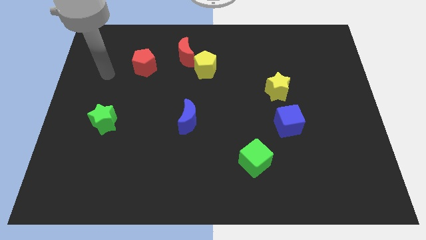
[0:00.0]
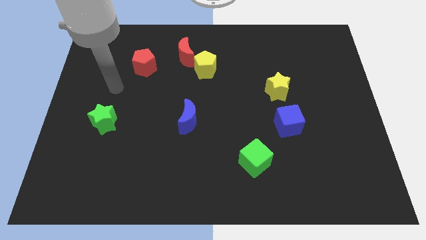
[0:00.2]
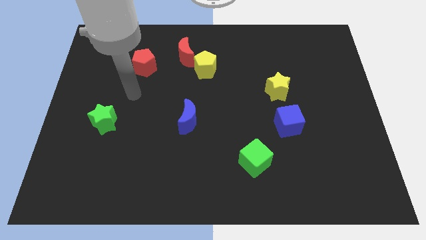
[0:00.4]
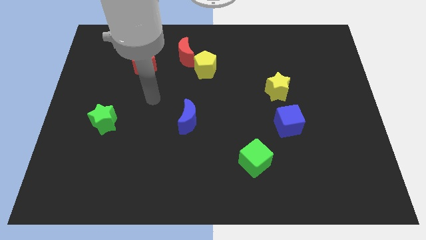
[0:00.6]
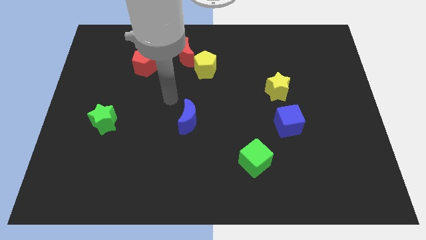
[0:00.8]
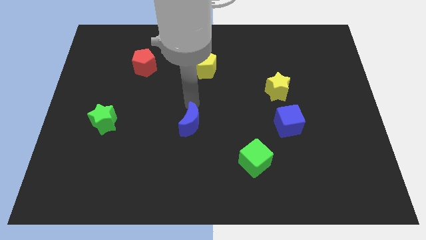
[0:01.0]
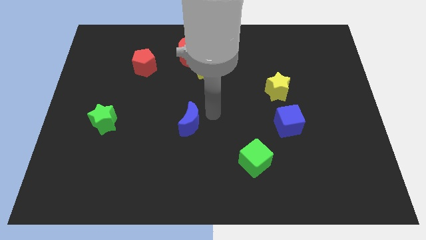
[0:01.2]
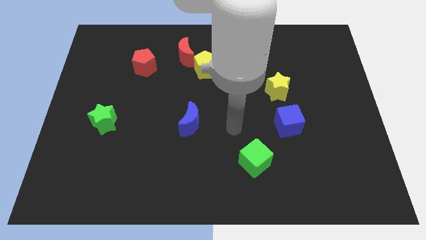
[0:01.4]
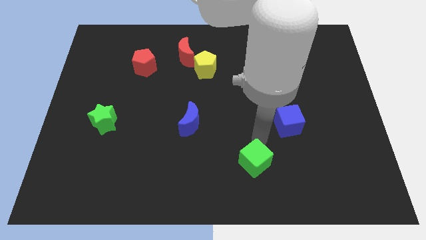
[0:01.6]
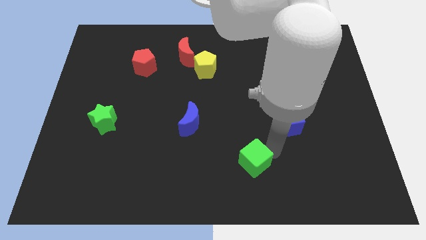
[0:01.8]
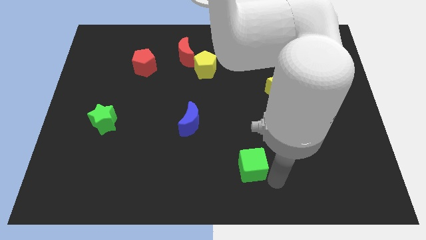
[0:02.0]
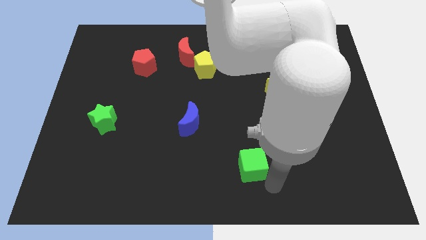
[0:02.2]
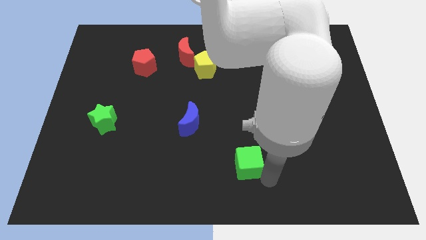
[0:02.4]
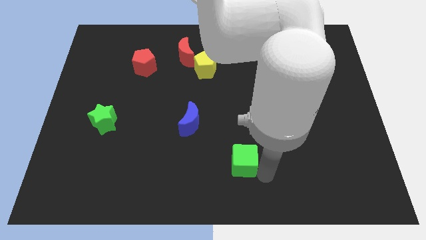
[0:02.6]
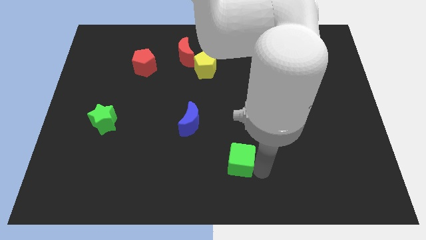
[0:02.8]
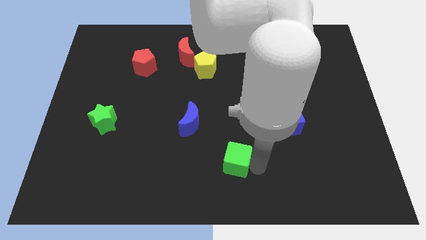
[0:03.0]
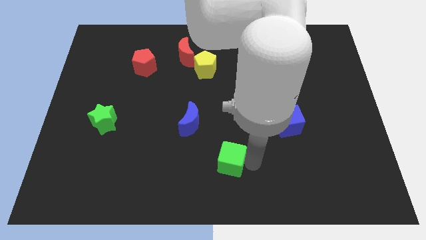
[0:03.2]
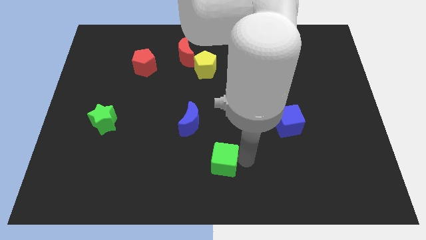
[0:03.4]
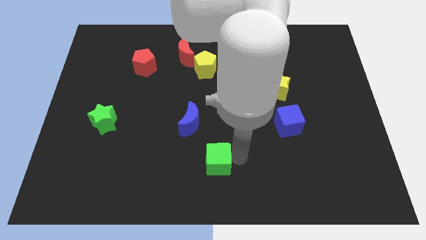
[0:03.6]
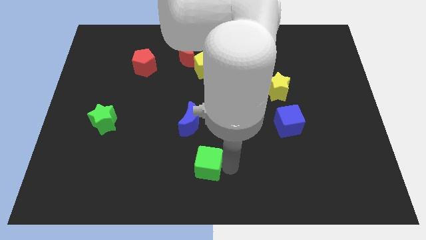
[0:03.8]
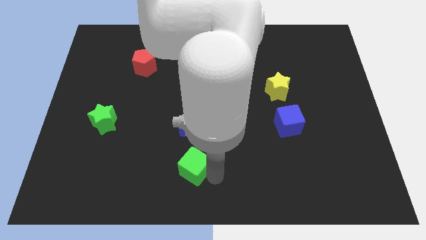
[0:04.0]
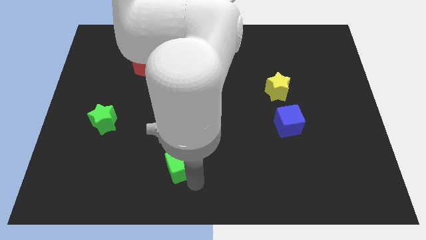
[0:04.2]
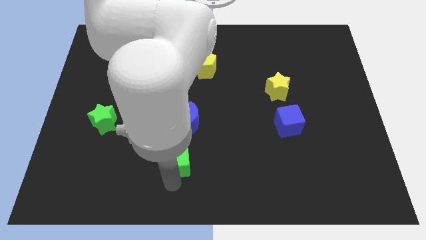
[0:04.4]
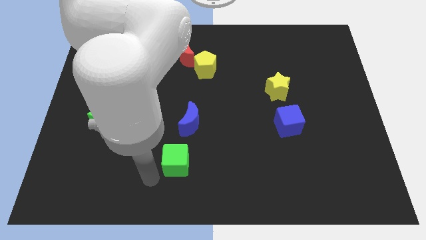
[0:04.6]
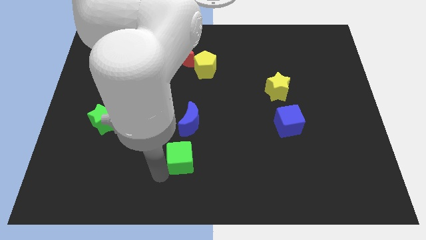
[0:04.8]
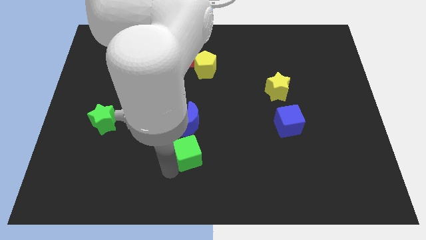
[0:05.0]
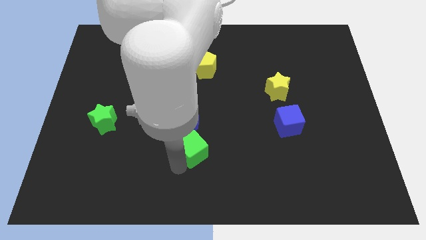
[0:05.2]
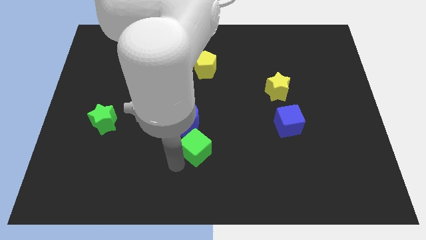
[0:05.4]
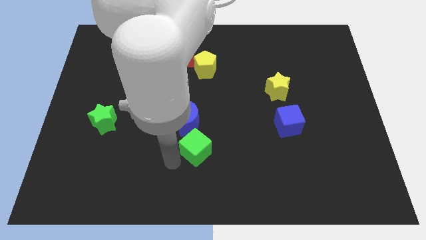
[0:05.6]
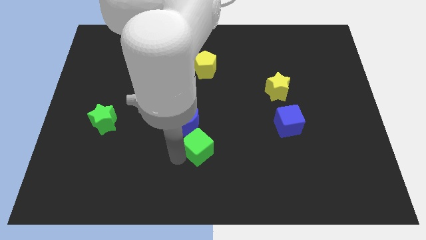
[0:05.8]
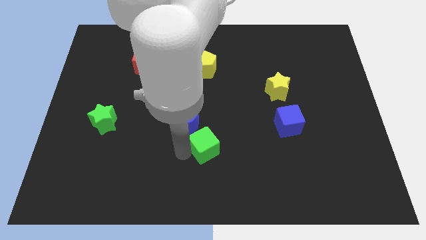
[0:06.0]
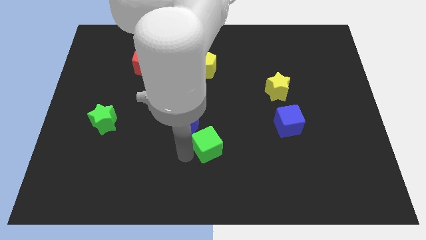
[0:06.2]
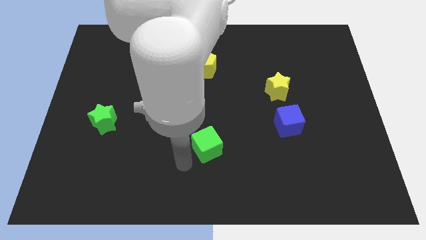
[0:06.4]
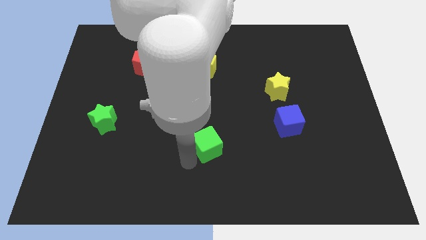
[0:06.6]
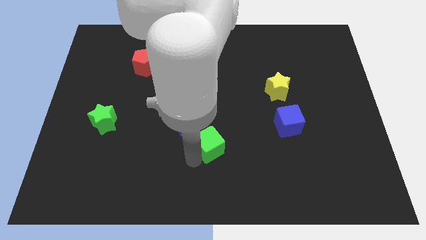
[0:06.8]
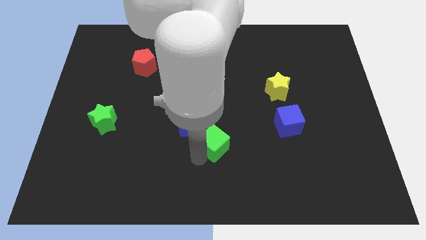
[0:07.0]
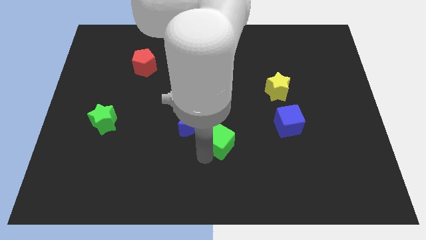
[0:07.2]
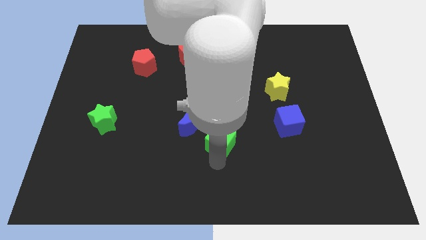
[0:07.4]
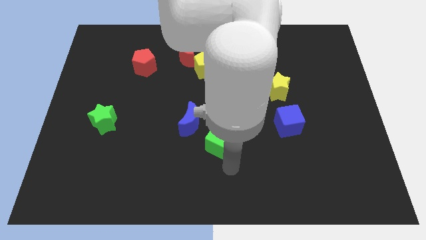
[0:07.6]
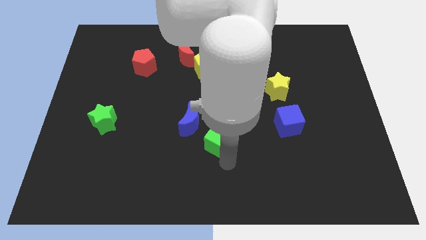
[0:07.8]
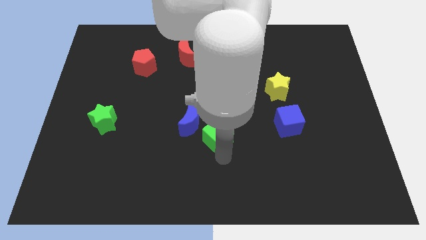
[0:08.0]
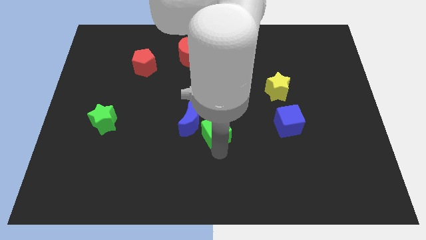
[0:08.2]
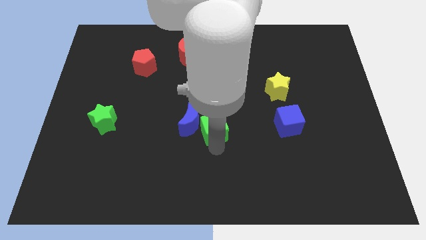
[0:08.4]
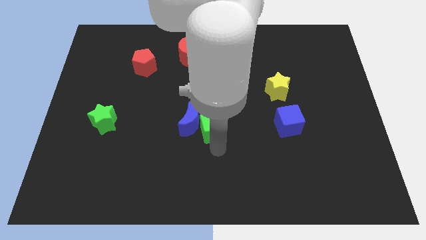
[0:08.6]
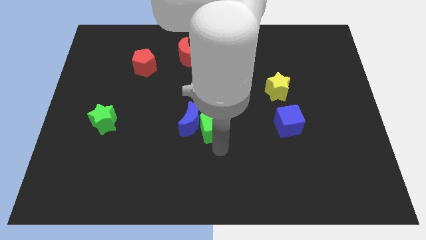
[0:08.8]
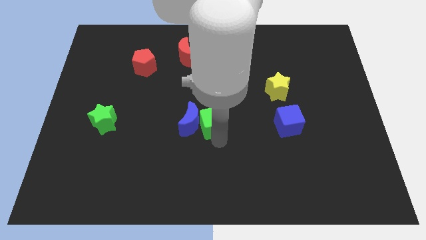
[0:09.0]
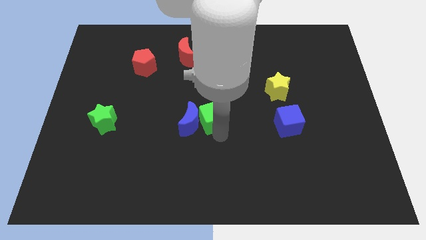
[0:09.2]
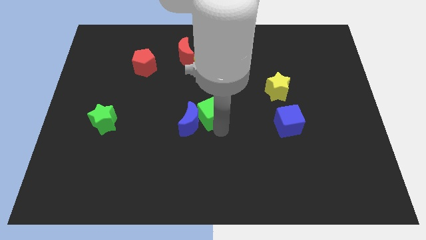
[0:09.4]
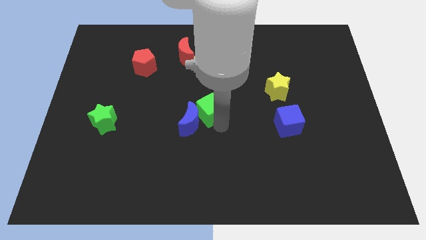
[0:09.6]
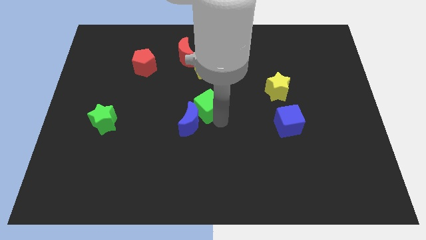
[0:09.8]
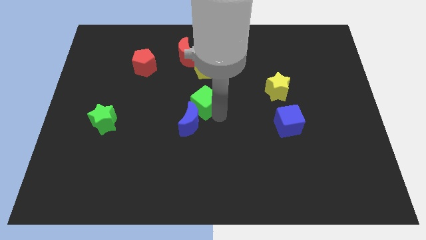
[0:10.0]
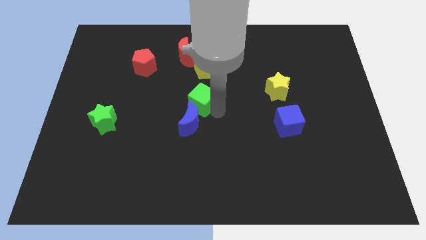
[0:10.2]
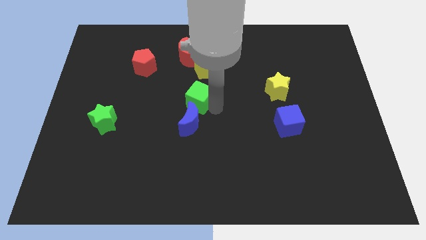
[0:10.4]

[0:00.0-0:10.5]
push the green cube diagonally upwards and to the left

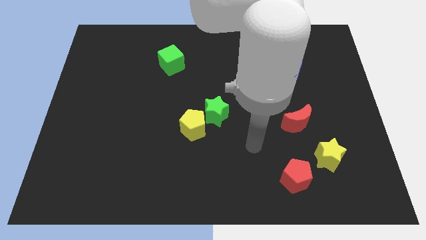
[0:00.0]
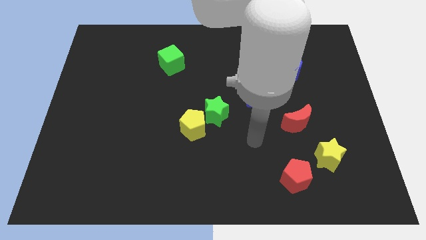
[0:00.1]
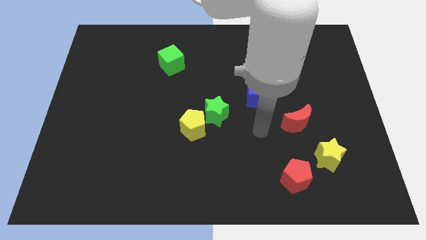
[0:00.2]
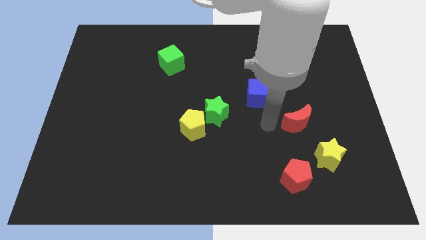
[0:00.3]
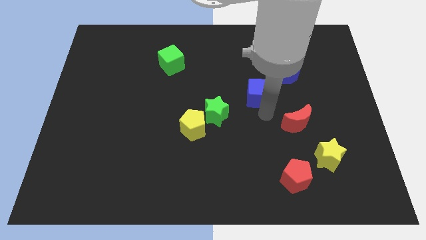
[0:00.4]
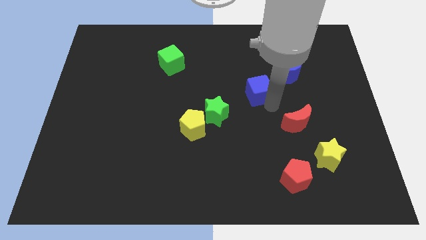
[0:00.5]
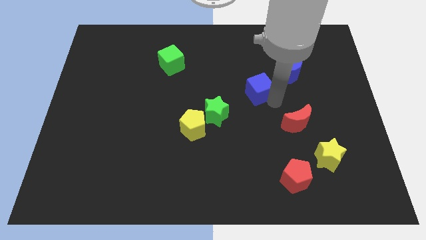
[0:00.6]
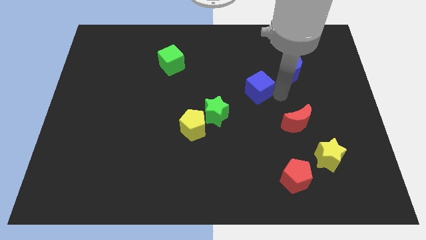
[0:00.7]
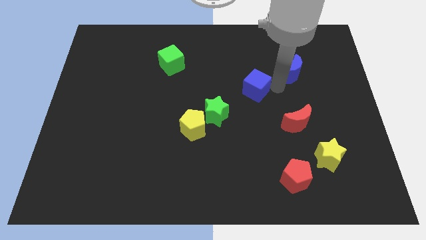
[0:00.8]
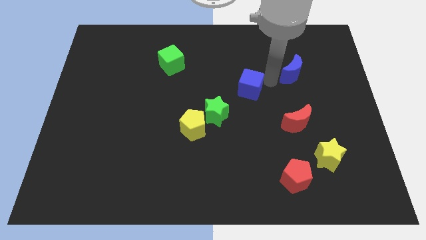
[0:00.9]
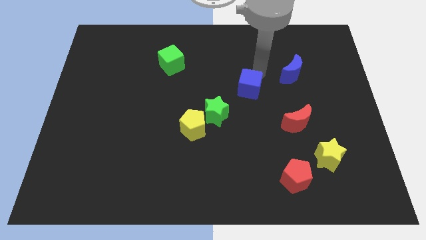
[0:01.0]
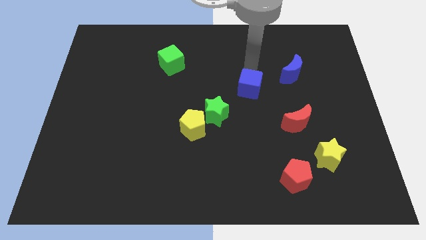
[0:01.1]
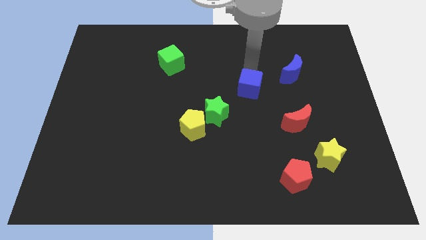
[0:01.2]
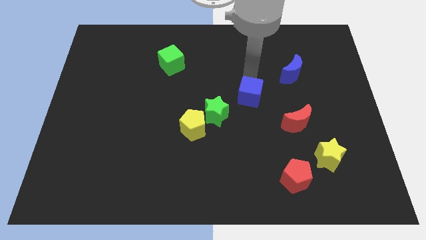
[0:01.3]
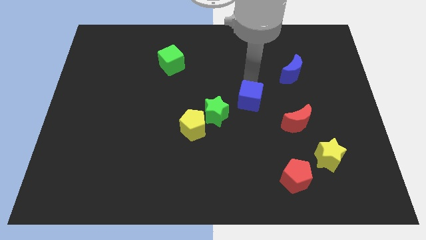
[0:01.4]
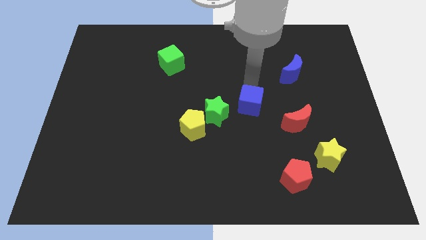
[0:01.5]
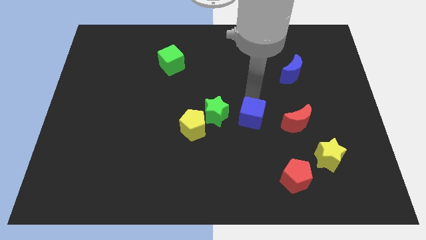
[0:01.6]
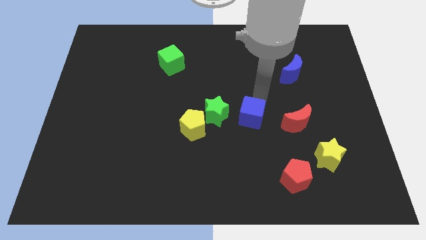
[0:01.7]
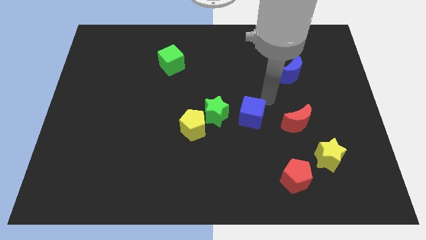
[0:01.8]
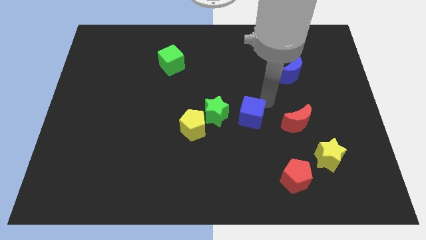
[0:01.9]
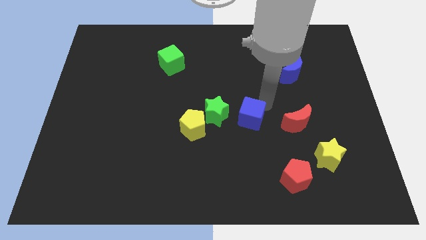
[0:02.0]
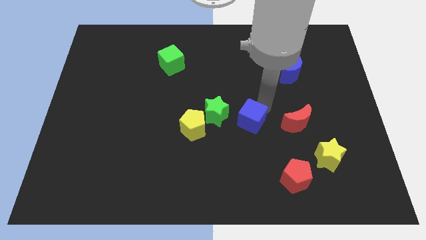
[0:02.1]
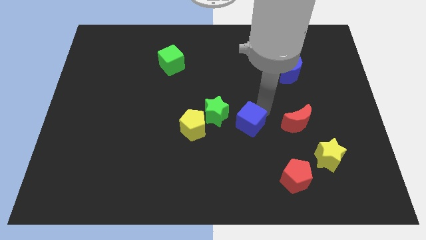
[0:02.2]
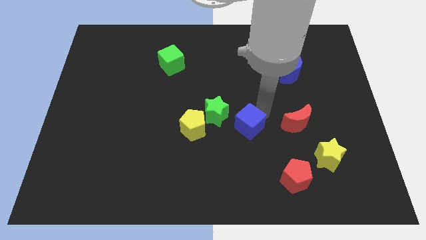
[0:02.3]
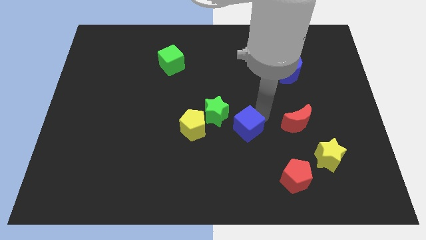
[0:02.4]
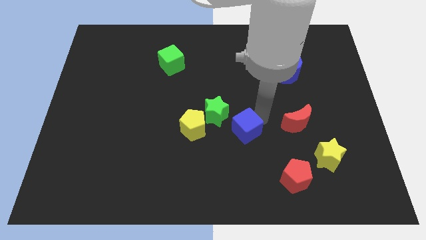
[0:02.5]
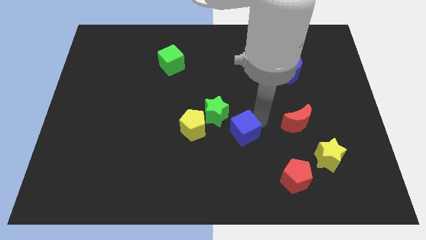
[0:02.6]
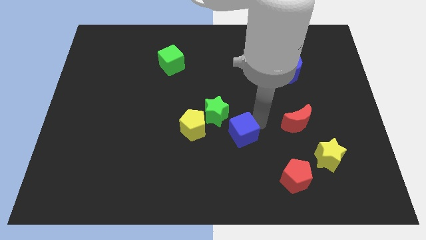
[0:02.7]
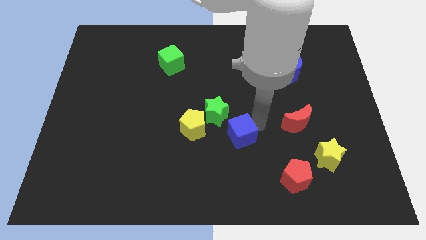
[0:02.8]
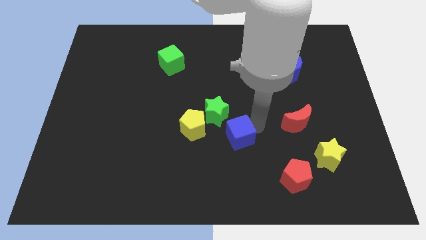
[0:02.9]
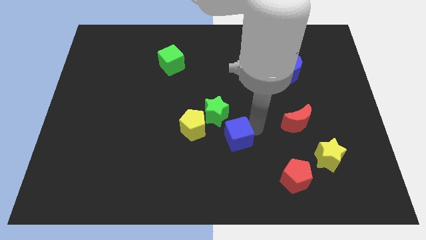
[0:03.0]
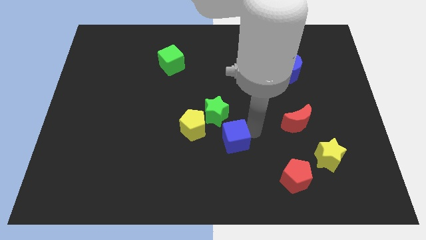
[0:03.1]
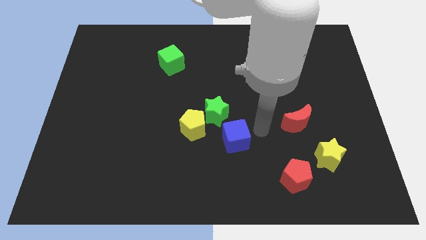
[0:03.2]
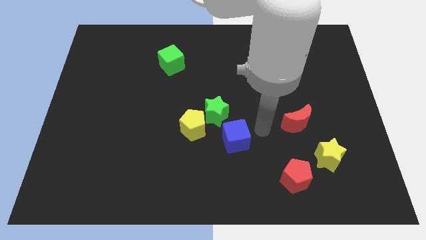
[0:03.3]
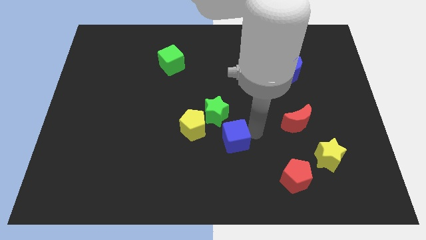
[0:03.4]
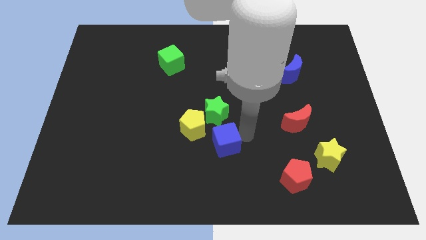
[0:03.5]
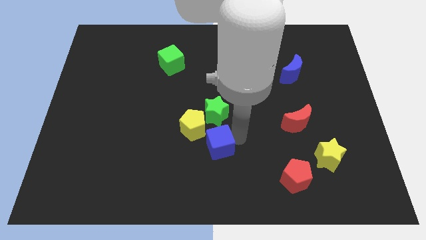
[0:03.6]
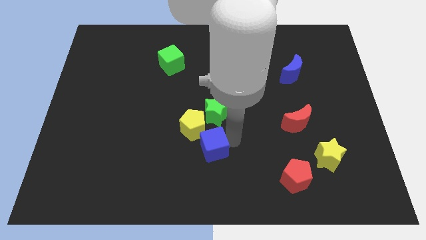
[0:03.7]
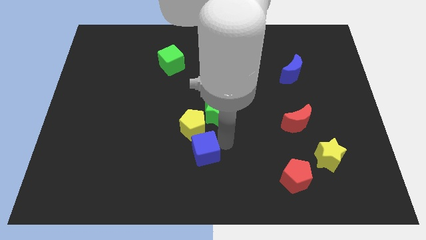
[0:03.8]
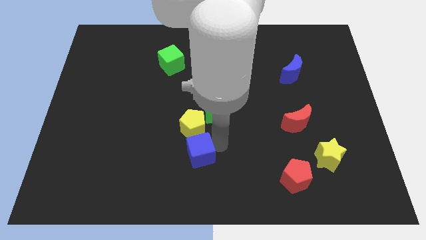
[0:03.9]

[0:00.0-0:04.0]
push the blue cube downwards and to the left
